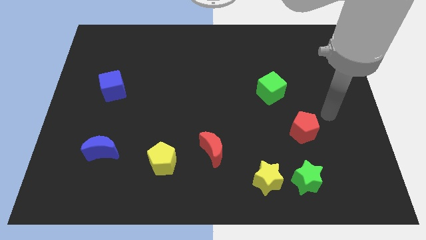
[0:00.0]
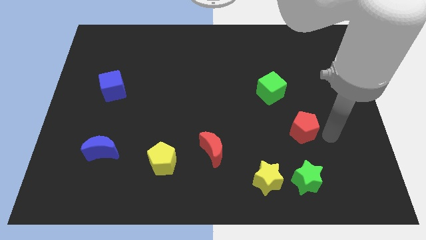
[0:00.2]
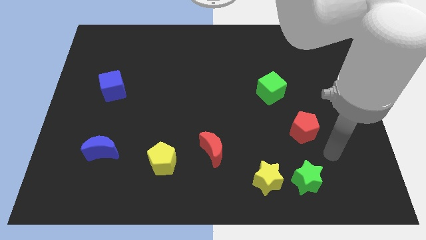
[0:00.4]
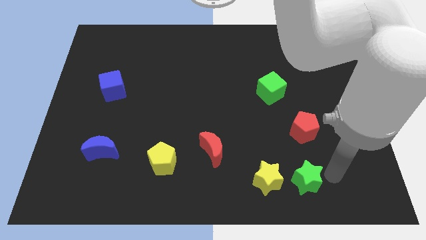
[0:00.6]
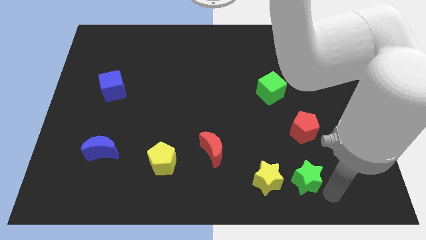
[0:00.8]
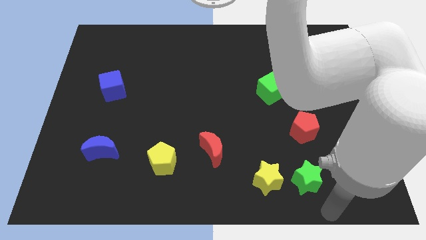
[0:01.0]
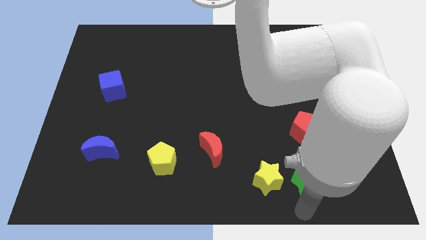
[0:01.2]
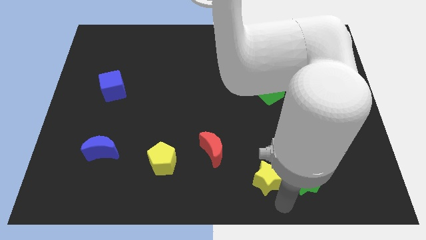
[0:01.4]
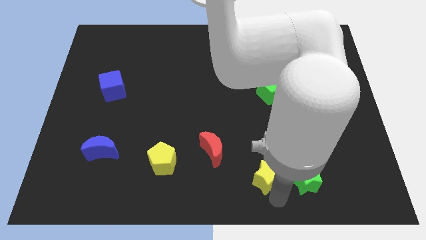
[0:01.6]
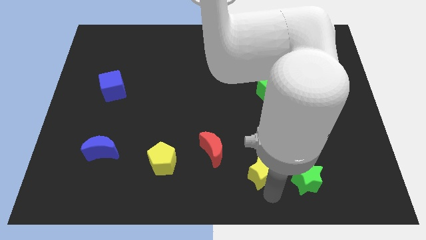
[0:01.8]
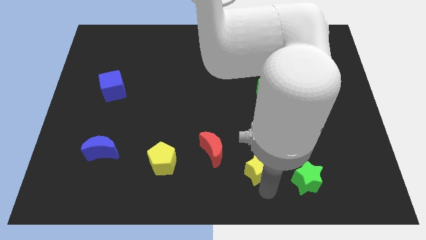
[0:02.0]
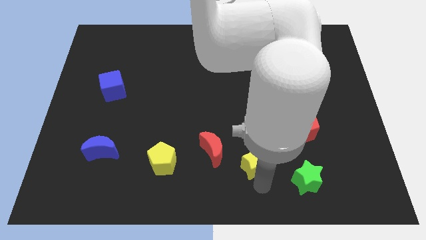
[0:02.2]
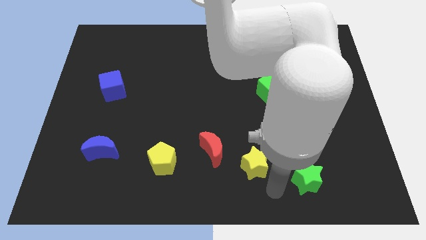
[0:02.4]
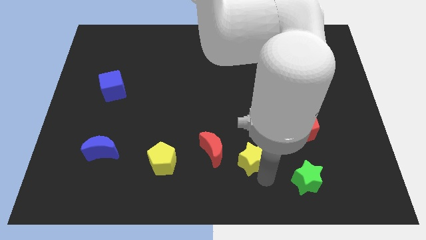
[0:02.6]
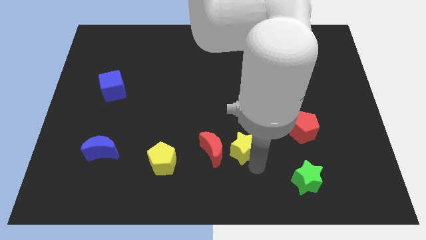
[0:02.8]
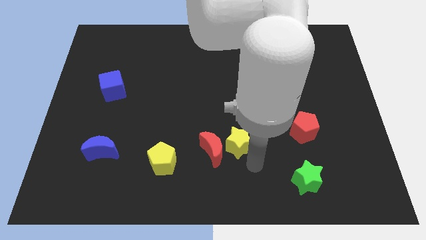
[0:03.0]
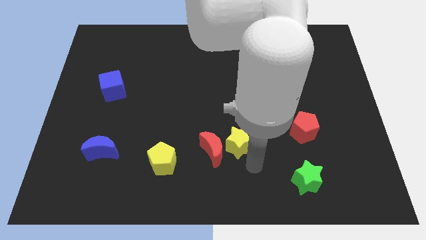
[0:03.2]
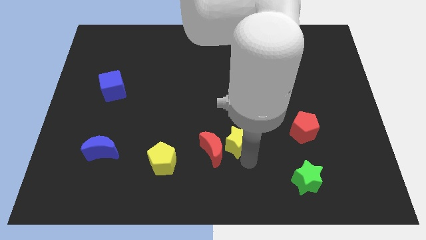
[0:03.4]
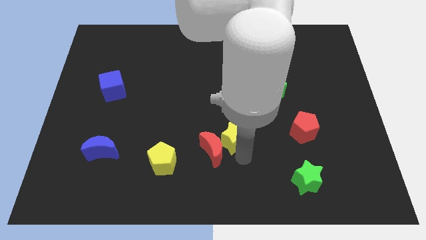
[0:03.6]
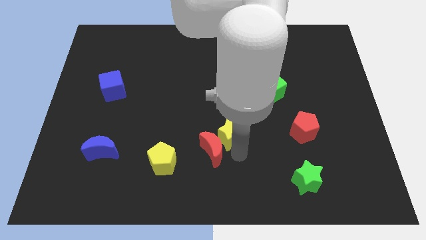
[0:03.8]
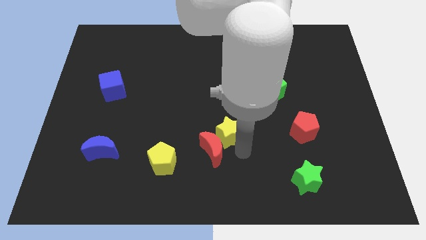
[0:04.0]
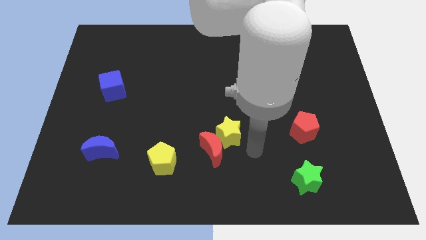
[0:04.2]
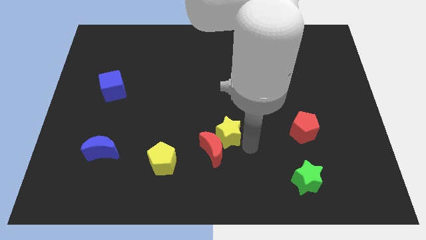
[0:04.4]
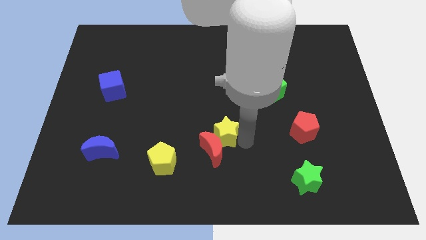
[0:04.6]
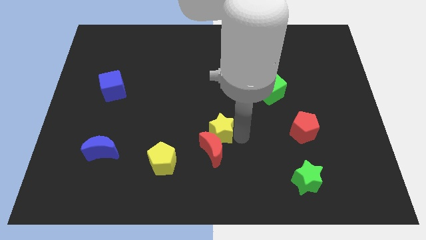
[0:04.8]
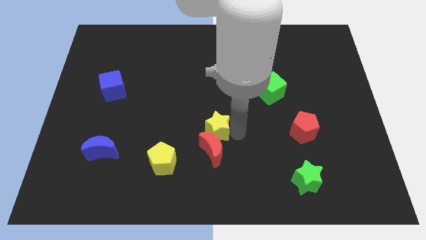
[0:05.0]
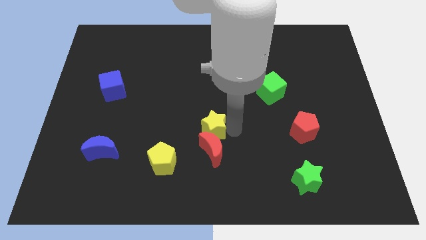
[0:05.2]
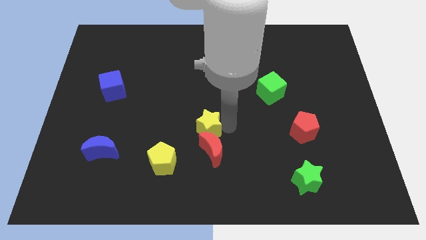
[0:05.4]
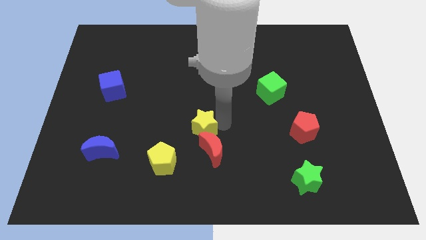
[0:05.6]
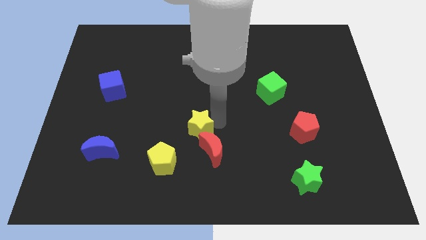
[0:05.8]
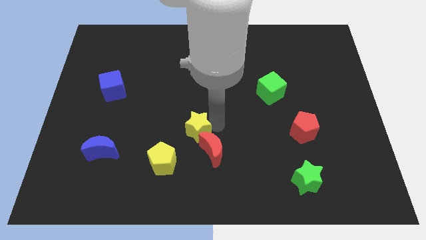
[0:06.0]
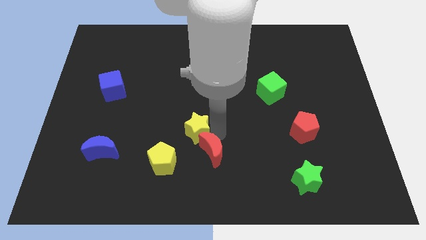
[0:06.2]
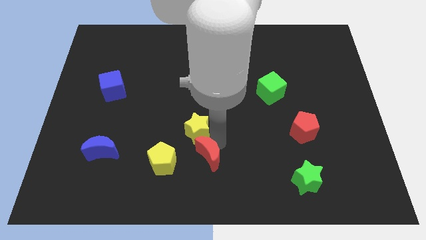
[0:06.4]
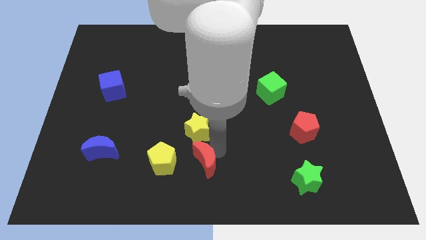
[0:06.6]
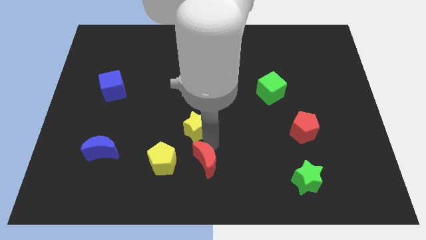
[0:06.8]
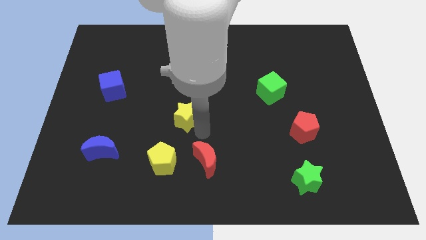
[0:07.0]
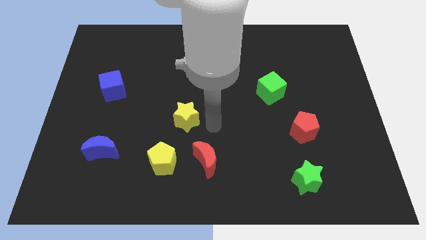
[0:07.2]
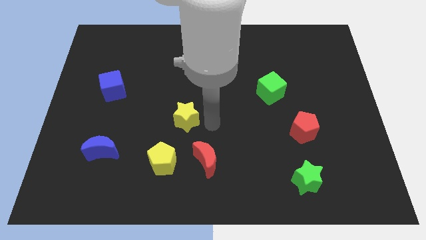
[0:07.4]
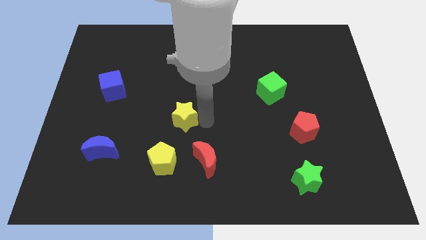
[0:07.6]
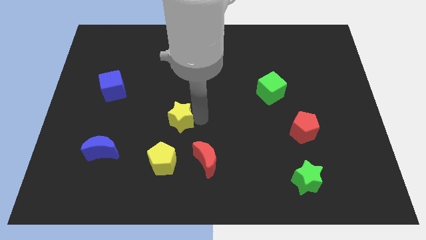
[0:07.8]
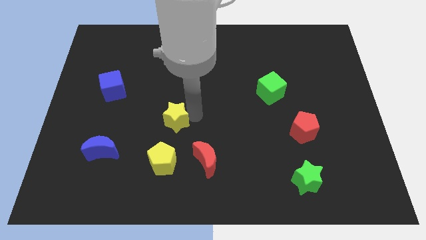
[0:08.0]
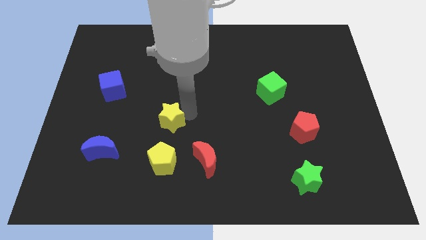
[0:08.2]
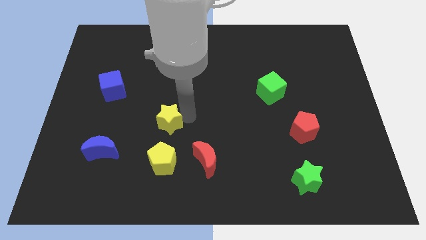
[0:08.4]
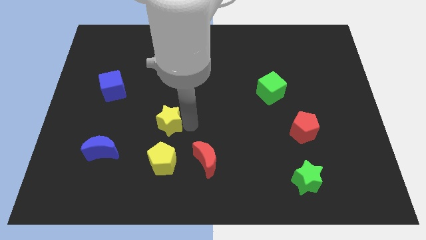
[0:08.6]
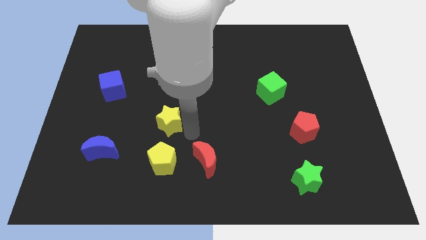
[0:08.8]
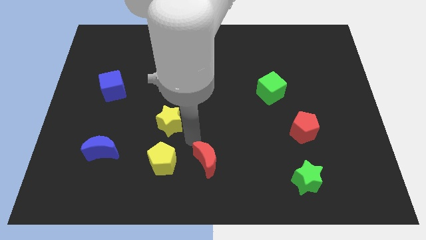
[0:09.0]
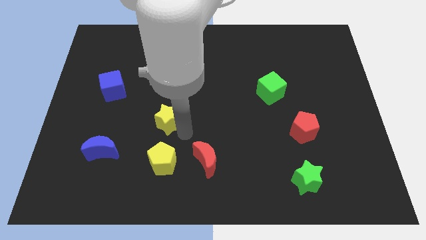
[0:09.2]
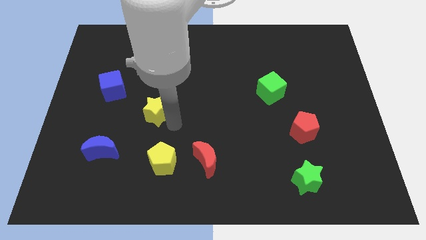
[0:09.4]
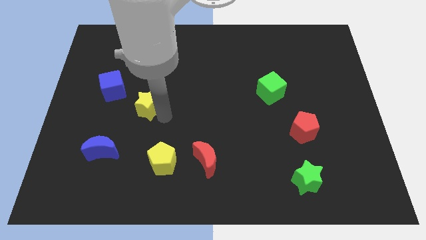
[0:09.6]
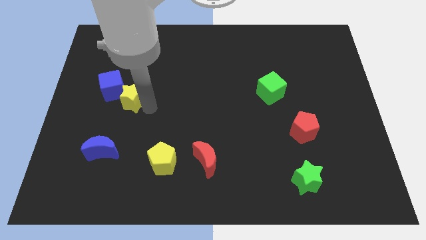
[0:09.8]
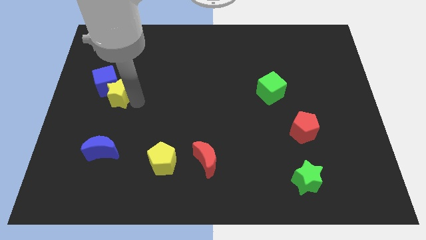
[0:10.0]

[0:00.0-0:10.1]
slide the yellow star next to the blue cube

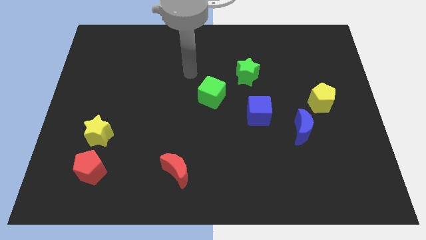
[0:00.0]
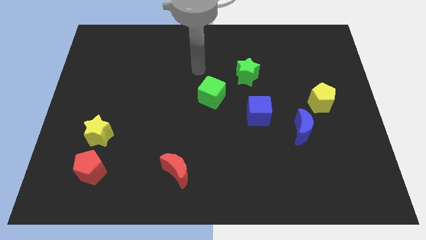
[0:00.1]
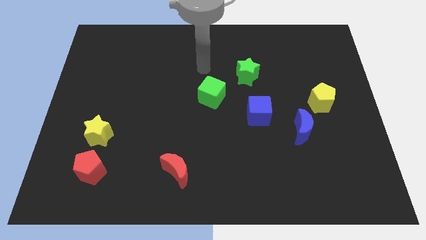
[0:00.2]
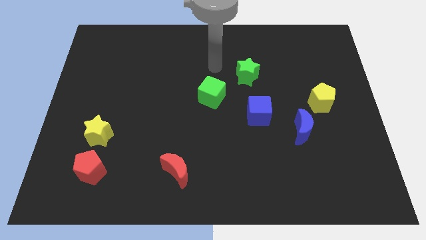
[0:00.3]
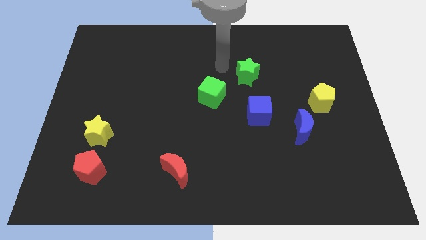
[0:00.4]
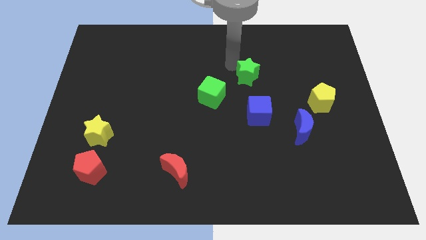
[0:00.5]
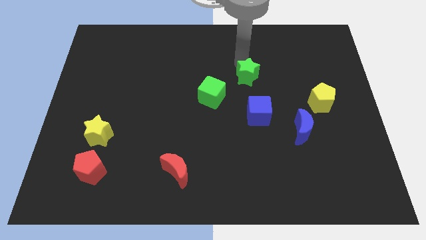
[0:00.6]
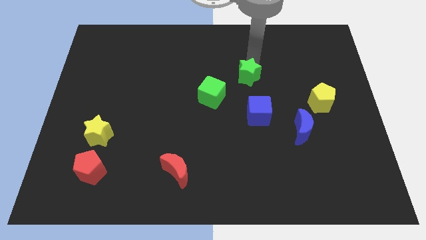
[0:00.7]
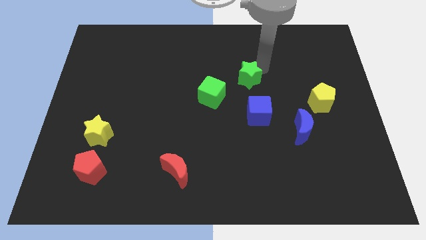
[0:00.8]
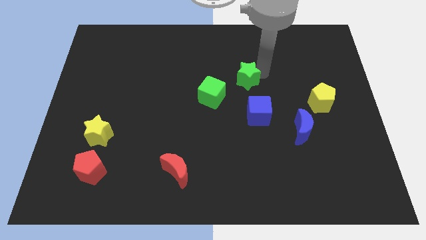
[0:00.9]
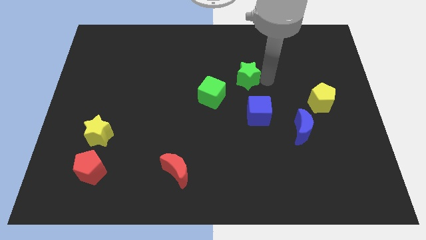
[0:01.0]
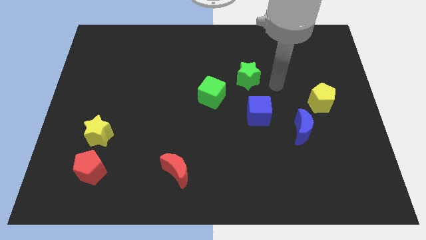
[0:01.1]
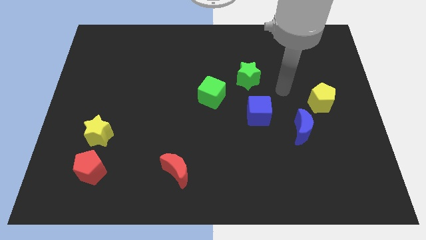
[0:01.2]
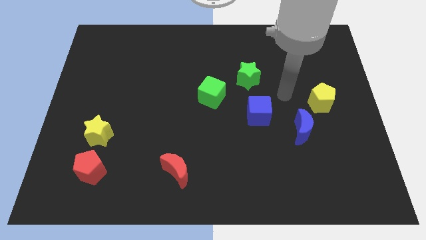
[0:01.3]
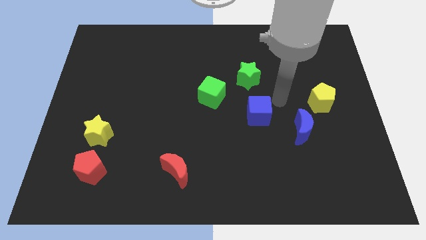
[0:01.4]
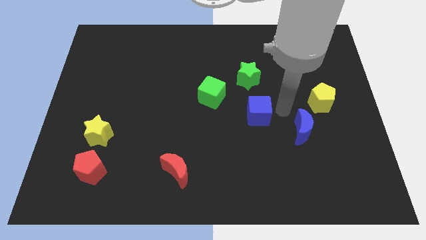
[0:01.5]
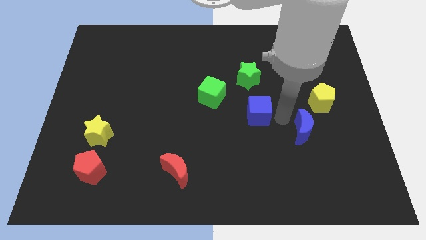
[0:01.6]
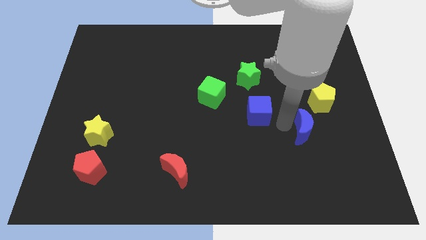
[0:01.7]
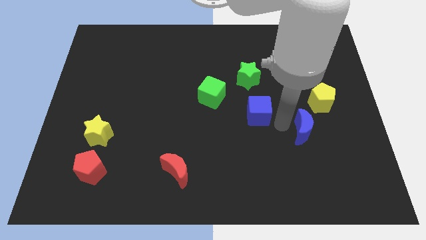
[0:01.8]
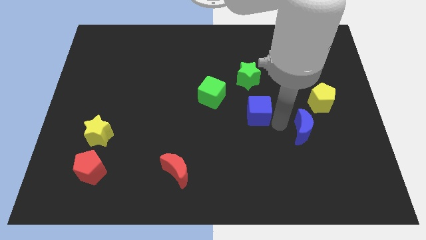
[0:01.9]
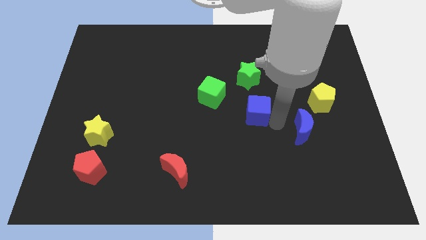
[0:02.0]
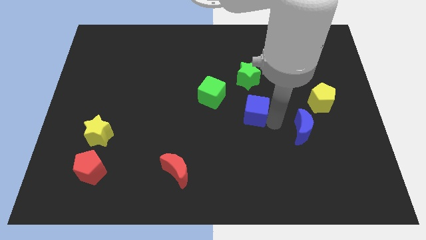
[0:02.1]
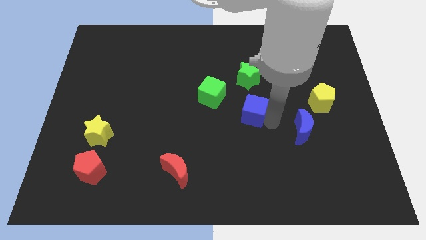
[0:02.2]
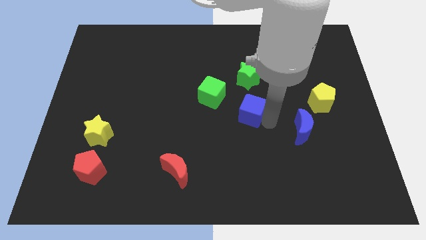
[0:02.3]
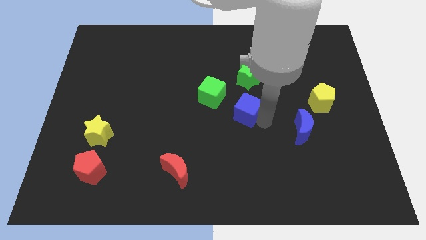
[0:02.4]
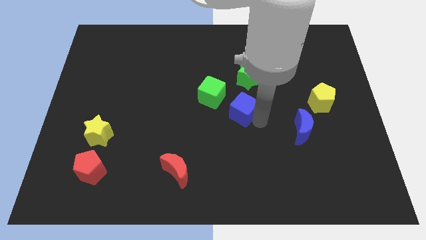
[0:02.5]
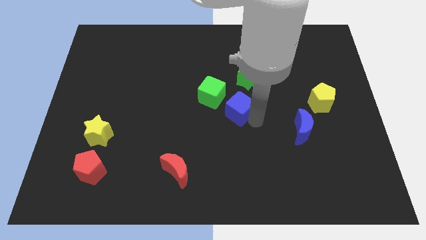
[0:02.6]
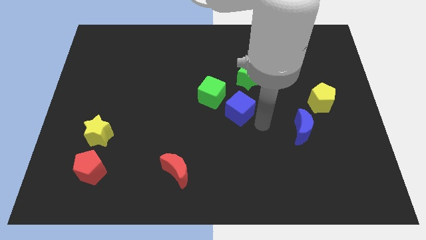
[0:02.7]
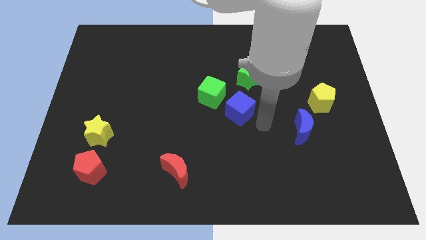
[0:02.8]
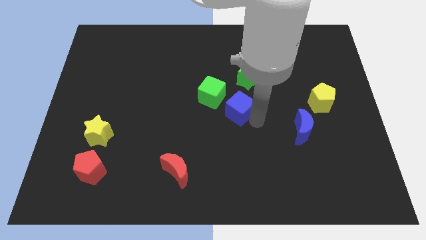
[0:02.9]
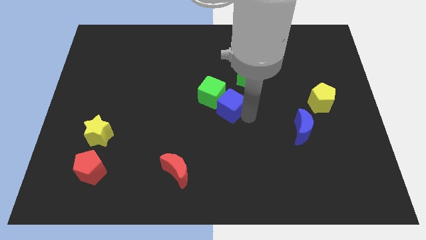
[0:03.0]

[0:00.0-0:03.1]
put the blue cube towards the green cube

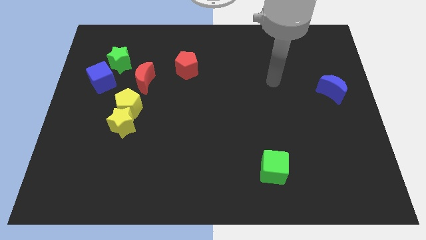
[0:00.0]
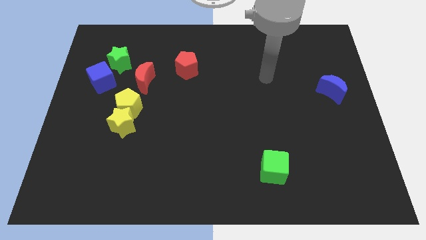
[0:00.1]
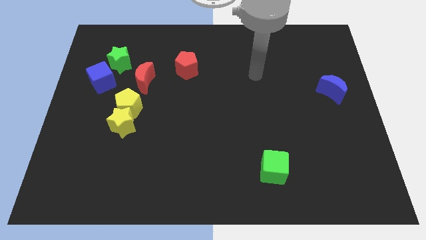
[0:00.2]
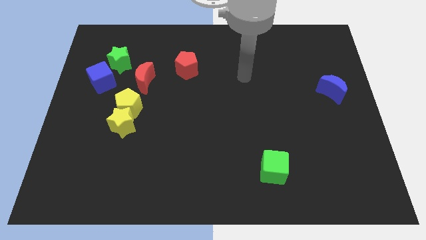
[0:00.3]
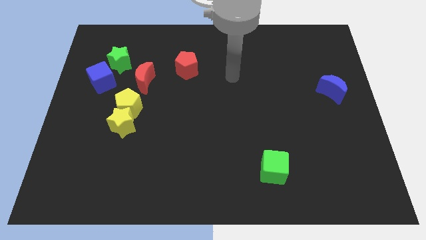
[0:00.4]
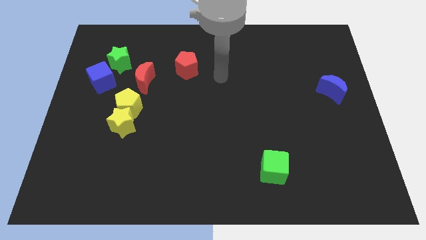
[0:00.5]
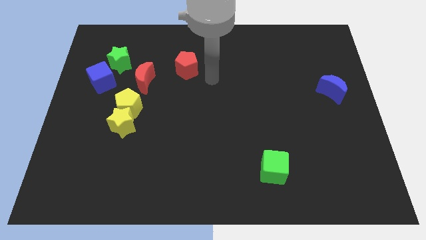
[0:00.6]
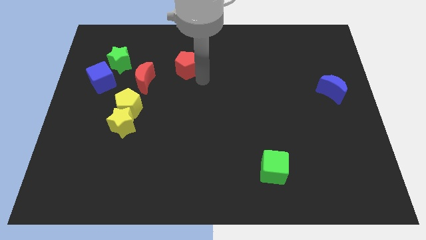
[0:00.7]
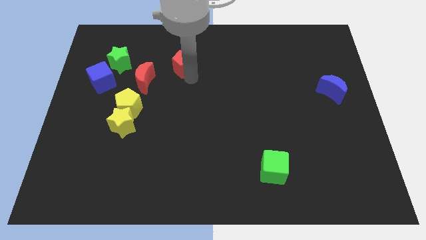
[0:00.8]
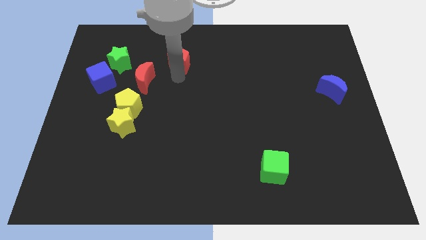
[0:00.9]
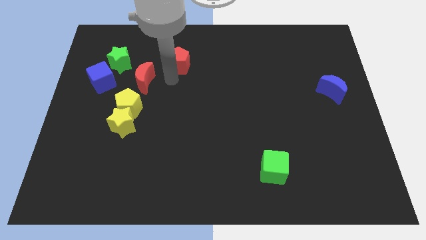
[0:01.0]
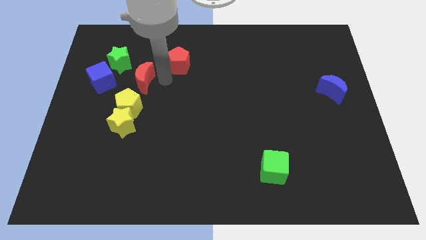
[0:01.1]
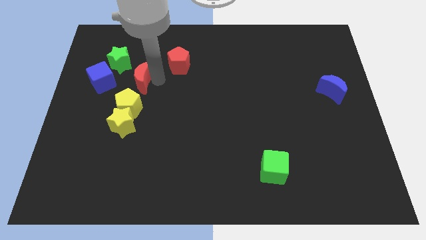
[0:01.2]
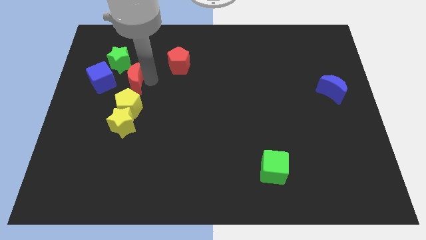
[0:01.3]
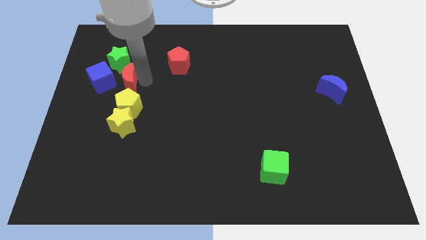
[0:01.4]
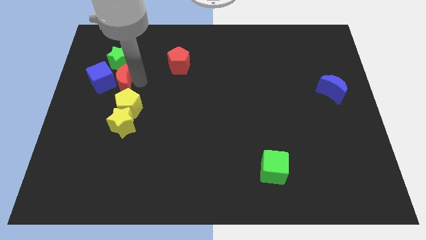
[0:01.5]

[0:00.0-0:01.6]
move the red moon towards the blue cube
